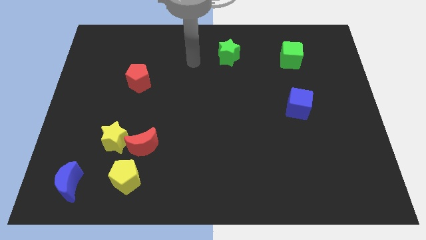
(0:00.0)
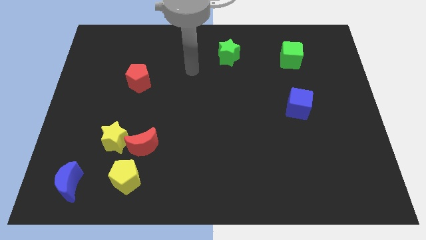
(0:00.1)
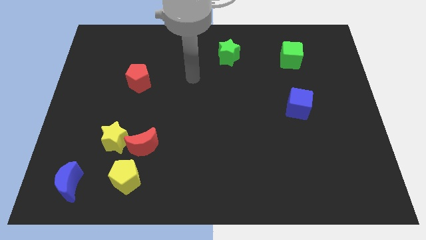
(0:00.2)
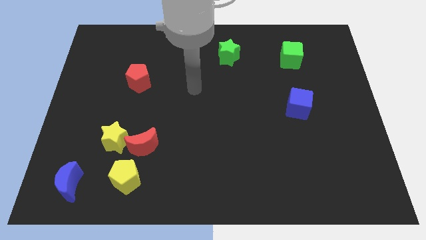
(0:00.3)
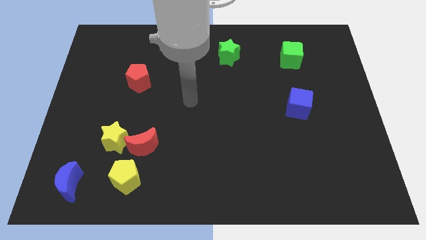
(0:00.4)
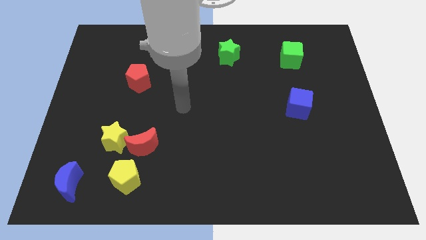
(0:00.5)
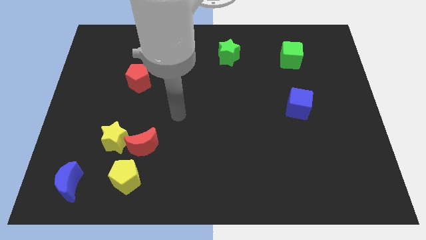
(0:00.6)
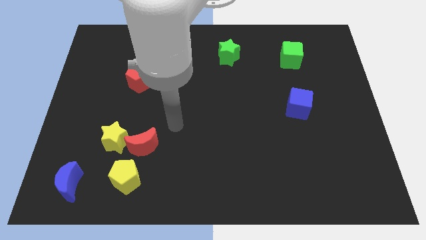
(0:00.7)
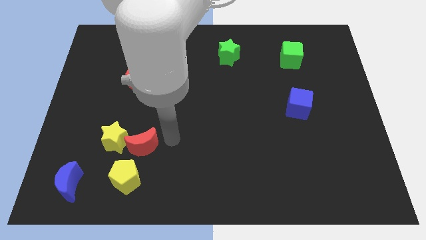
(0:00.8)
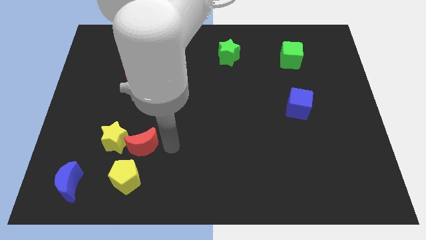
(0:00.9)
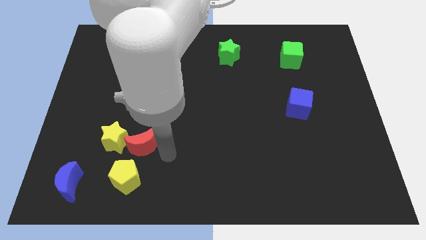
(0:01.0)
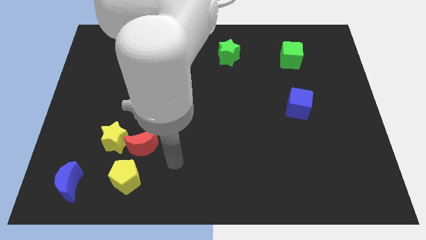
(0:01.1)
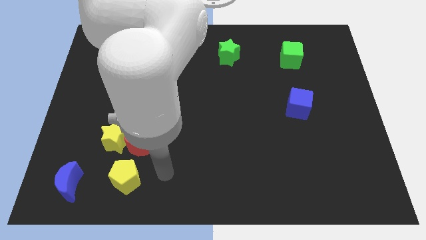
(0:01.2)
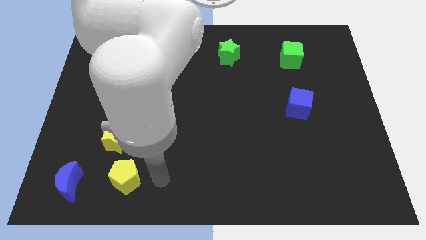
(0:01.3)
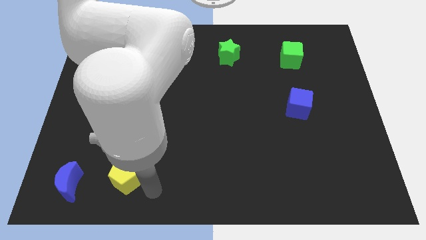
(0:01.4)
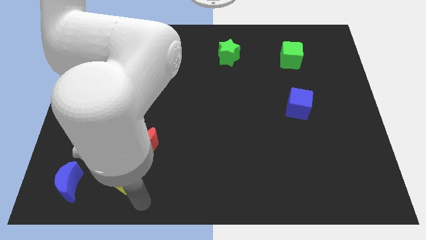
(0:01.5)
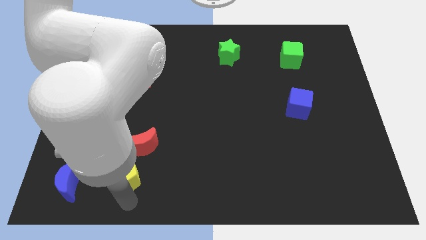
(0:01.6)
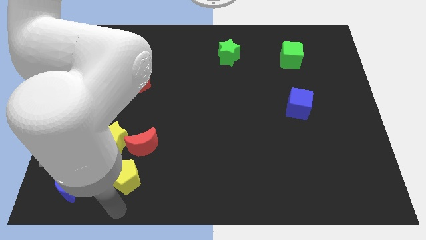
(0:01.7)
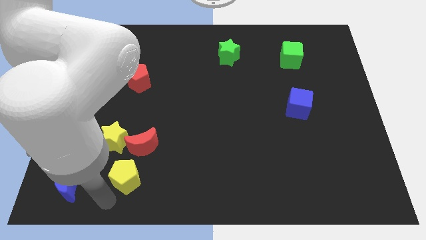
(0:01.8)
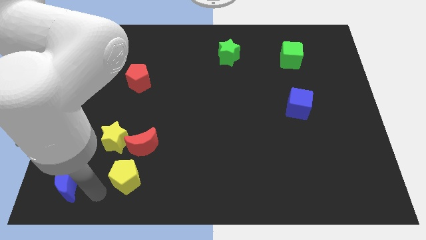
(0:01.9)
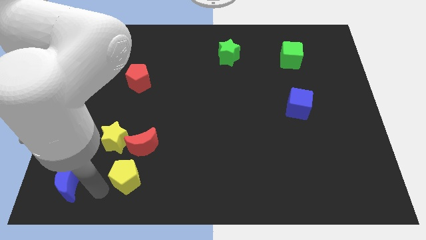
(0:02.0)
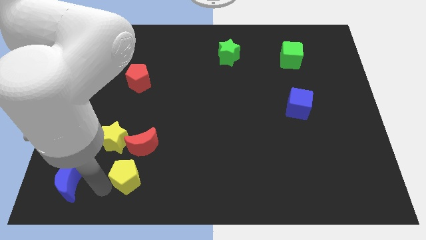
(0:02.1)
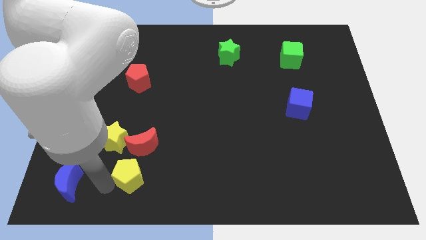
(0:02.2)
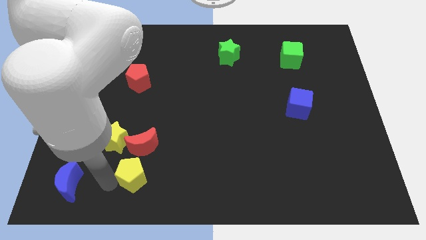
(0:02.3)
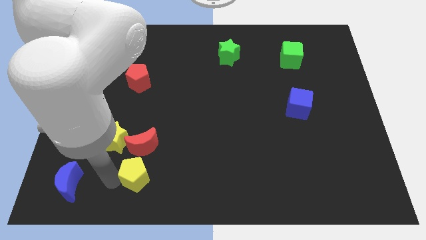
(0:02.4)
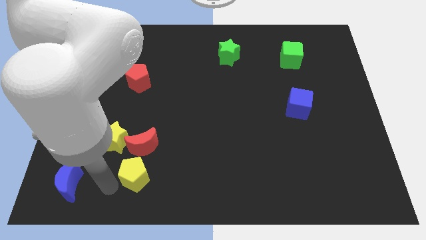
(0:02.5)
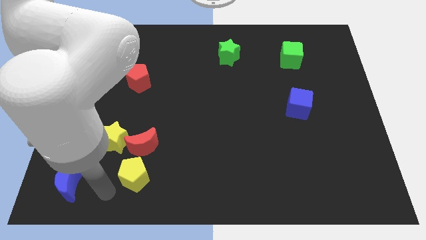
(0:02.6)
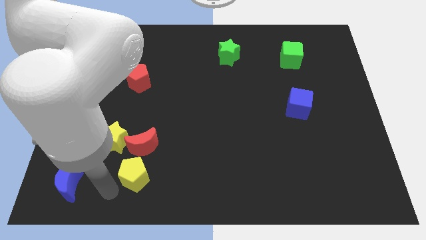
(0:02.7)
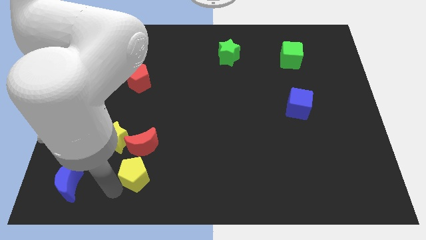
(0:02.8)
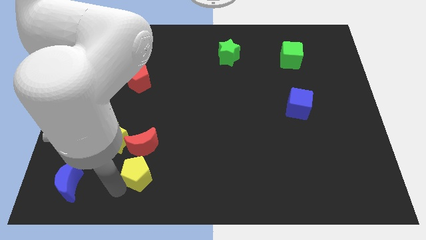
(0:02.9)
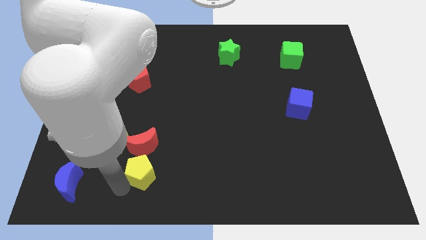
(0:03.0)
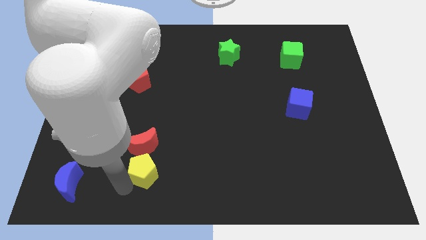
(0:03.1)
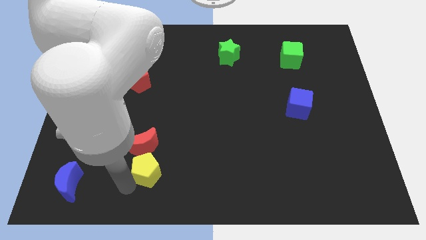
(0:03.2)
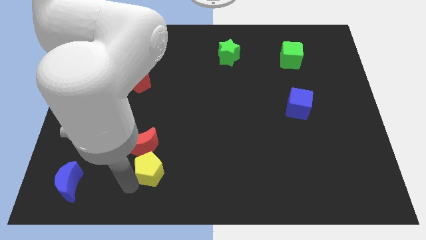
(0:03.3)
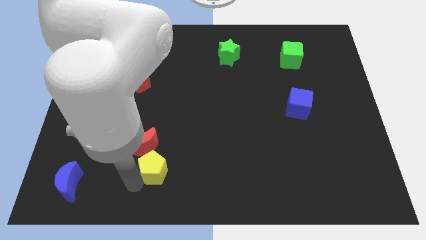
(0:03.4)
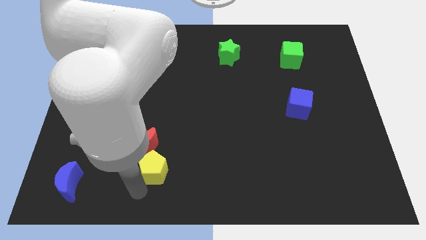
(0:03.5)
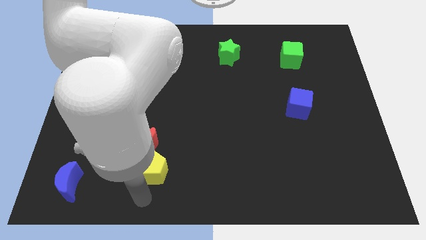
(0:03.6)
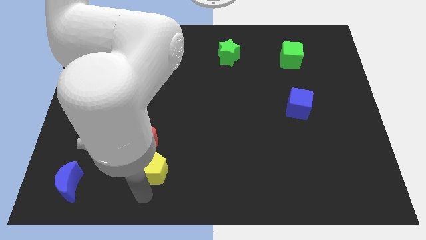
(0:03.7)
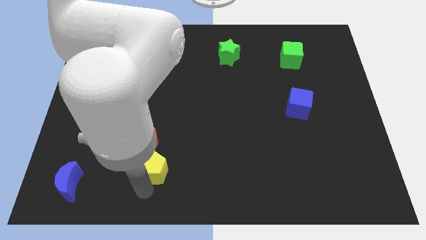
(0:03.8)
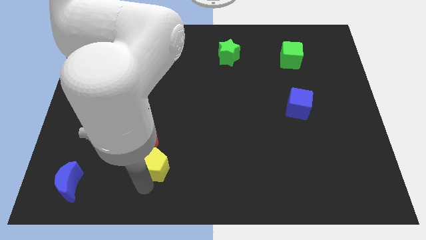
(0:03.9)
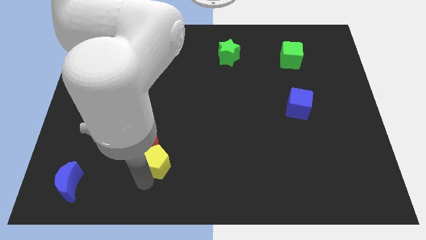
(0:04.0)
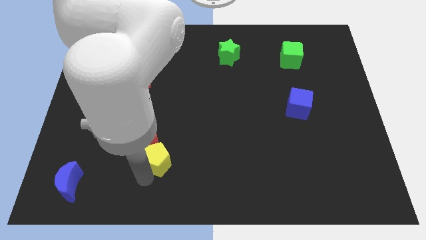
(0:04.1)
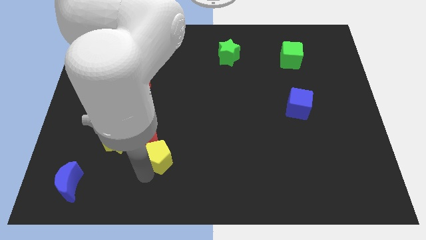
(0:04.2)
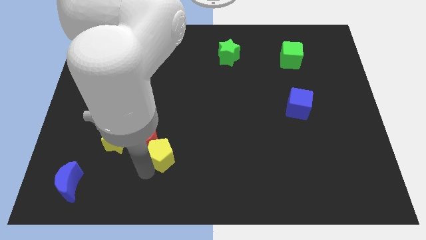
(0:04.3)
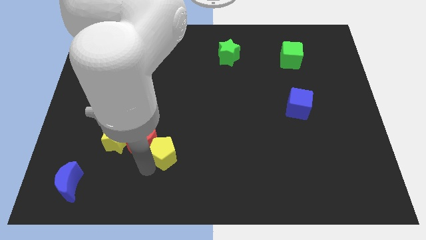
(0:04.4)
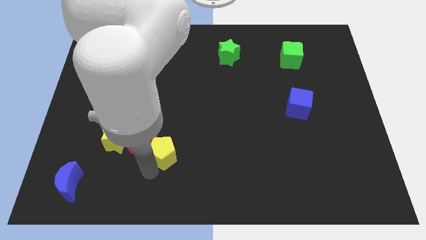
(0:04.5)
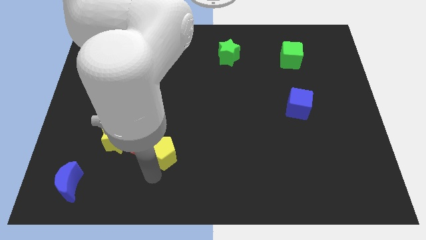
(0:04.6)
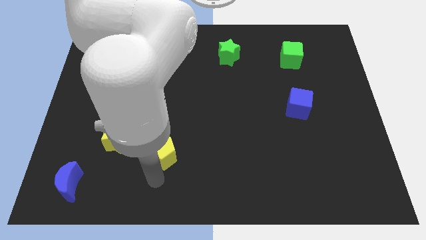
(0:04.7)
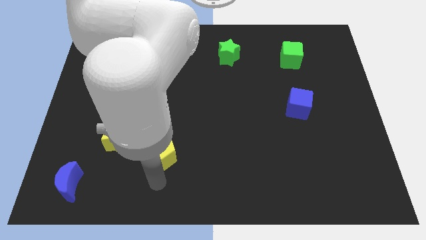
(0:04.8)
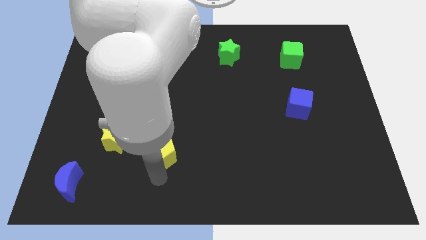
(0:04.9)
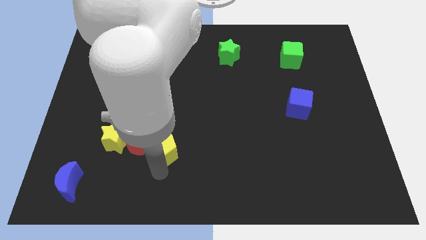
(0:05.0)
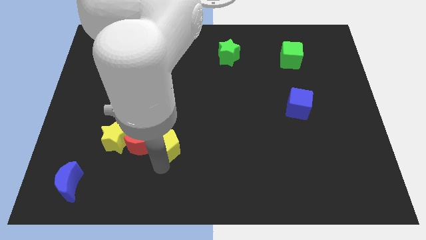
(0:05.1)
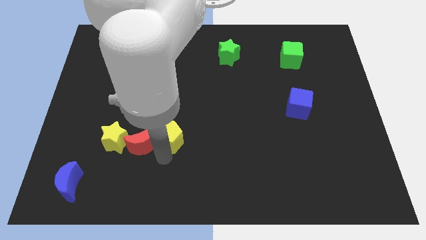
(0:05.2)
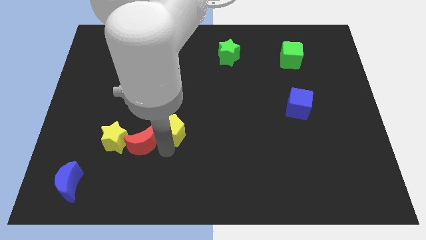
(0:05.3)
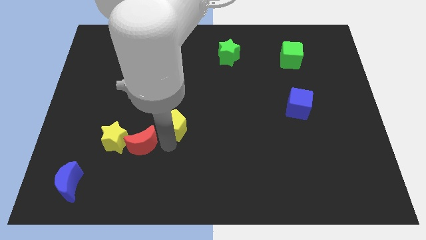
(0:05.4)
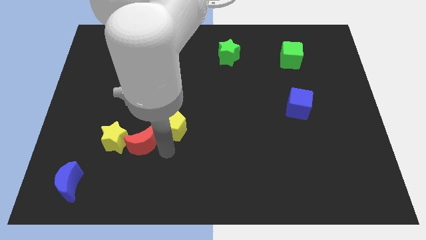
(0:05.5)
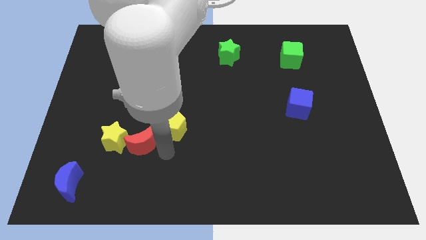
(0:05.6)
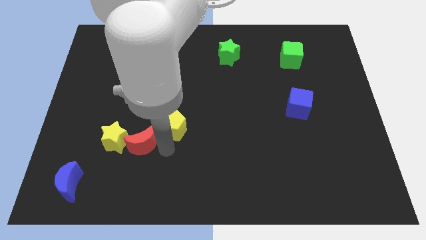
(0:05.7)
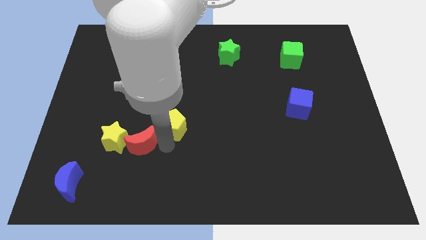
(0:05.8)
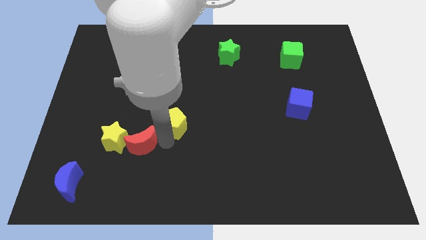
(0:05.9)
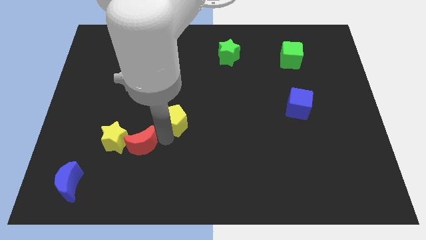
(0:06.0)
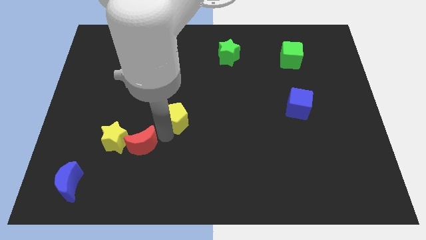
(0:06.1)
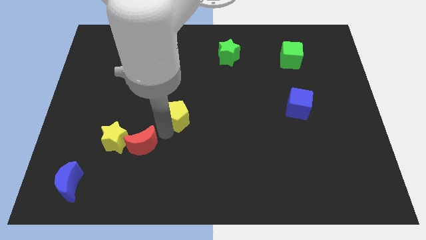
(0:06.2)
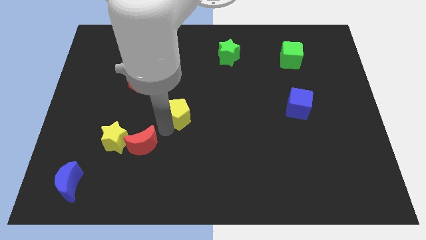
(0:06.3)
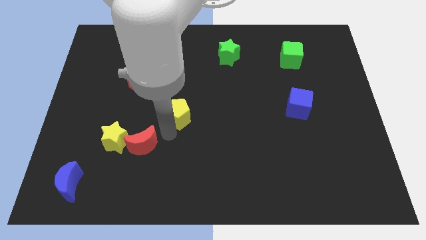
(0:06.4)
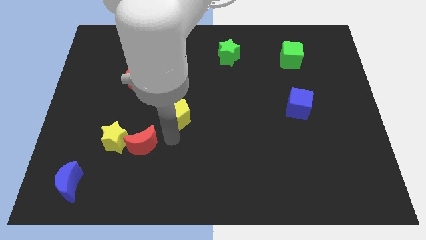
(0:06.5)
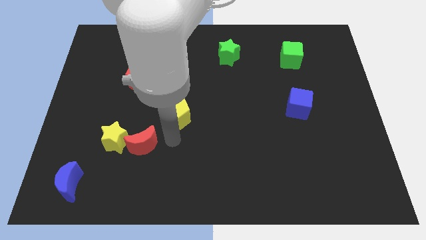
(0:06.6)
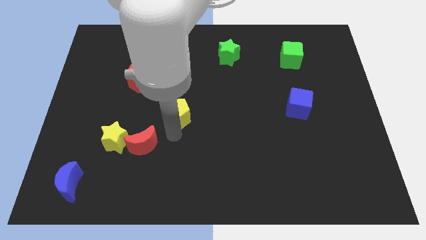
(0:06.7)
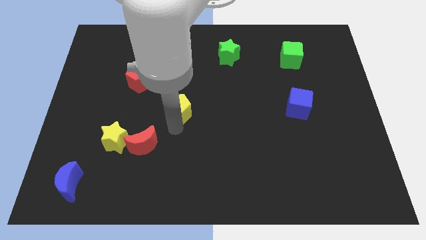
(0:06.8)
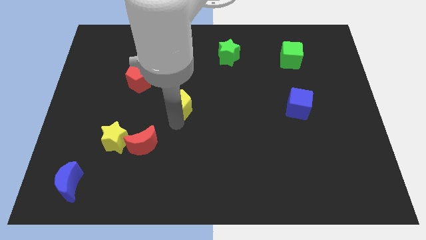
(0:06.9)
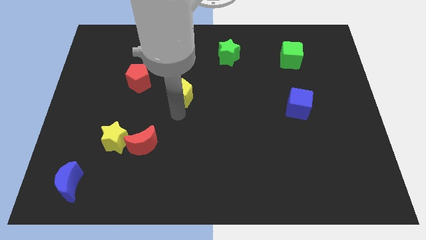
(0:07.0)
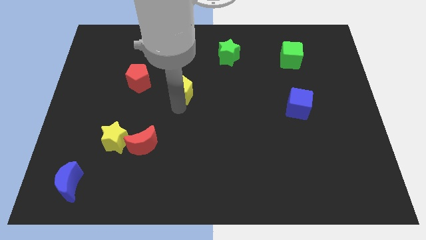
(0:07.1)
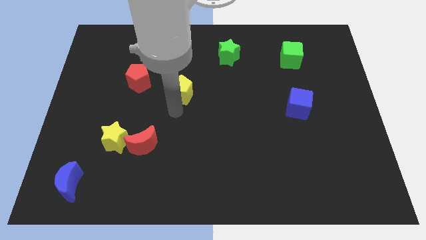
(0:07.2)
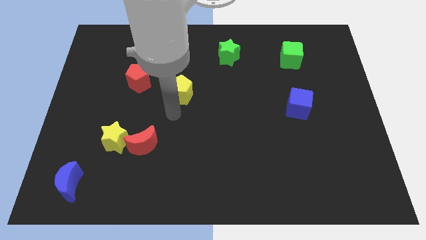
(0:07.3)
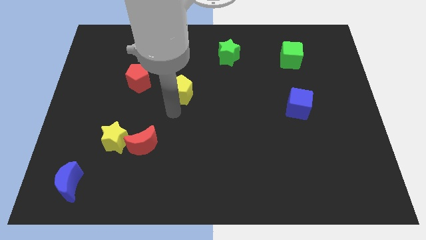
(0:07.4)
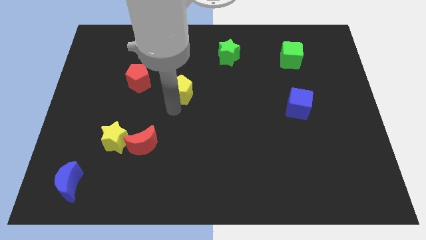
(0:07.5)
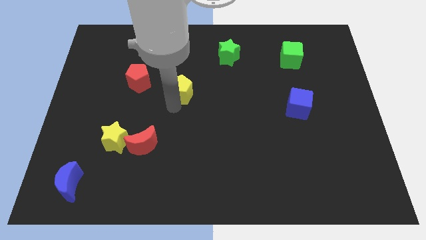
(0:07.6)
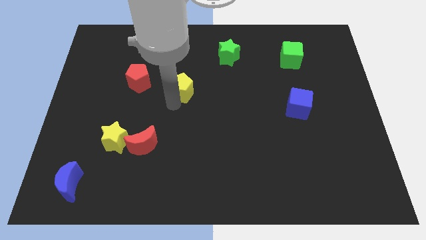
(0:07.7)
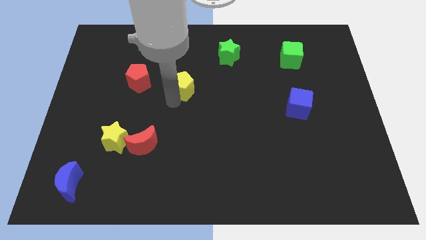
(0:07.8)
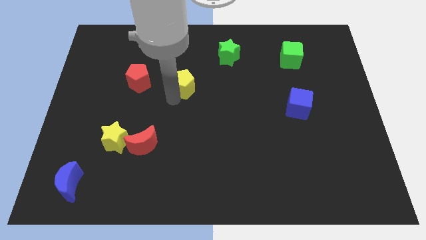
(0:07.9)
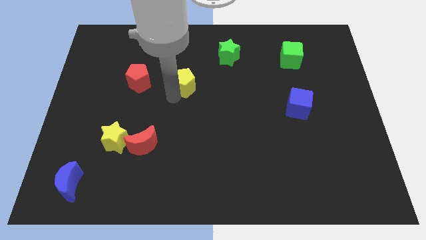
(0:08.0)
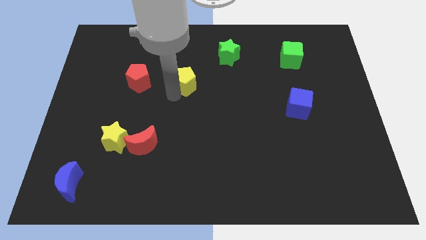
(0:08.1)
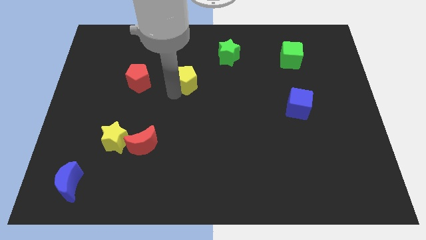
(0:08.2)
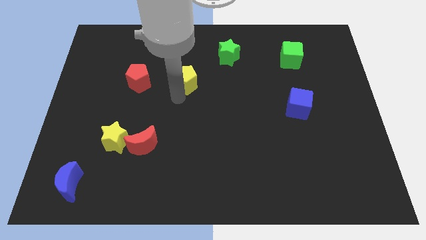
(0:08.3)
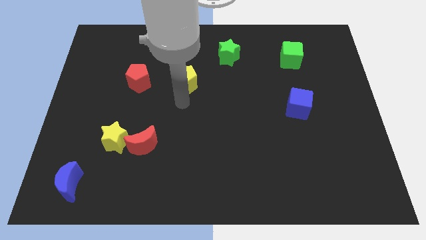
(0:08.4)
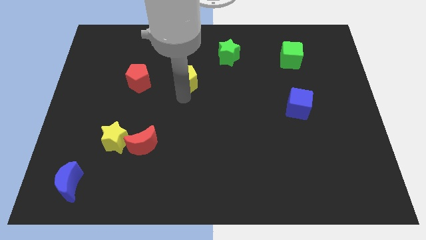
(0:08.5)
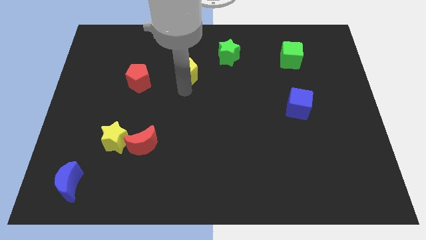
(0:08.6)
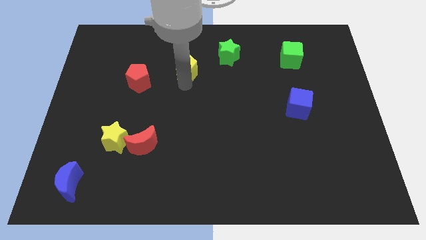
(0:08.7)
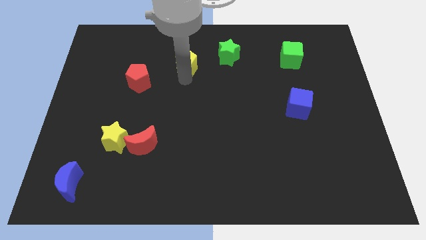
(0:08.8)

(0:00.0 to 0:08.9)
slide the yellow pentagon just left of the green star
